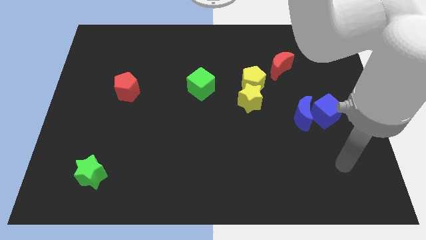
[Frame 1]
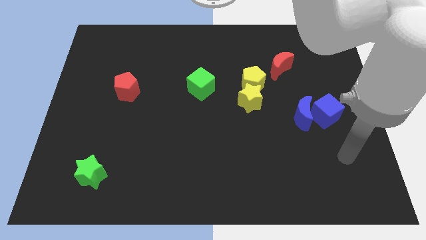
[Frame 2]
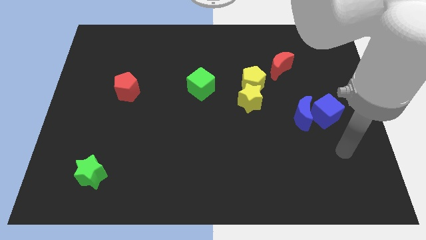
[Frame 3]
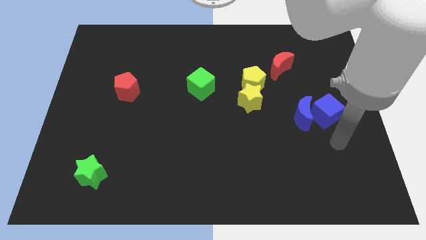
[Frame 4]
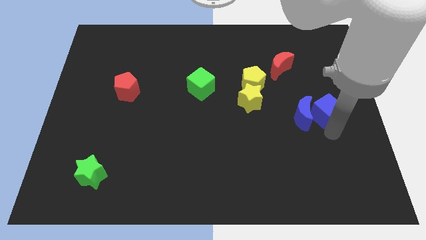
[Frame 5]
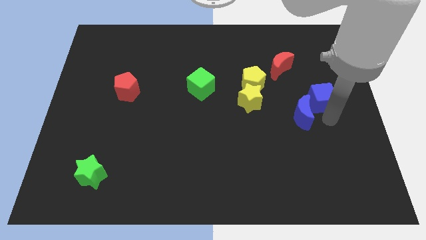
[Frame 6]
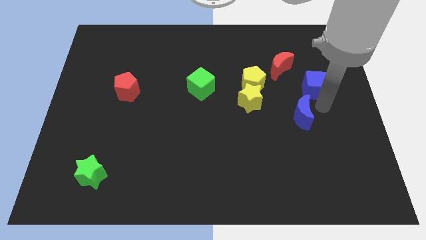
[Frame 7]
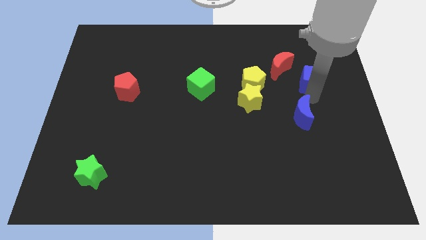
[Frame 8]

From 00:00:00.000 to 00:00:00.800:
move the blue moon away from the blue cube

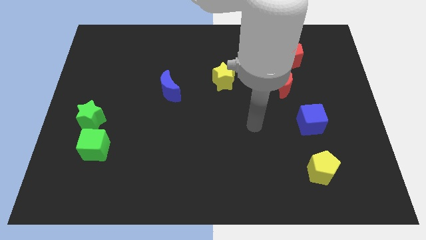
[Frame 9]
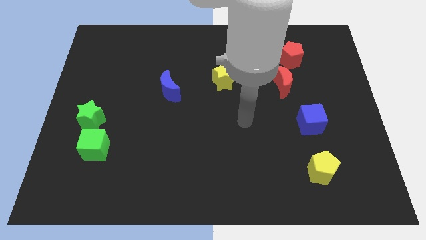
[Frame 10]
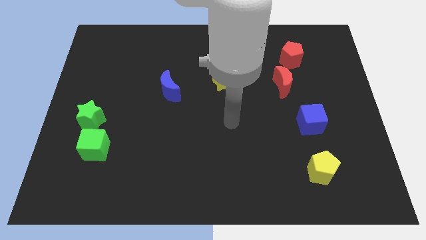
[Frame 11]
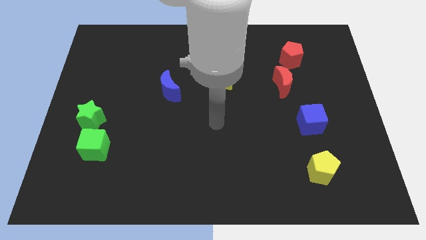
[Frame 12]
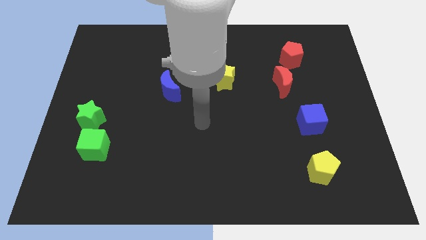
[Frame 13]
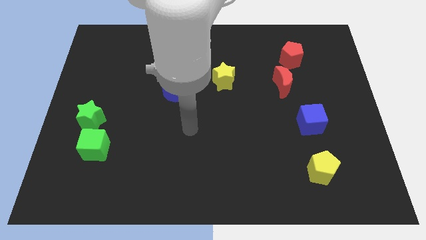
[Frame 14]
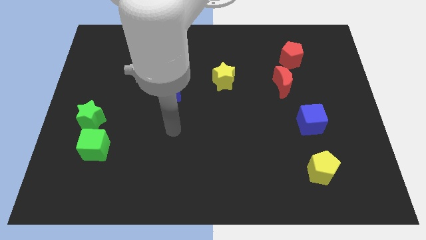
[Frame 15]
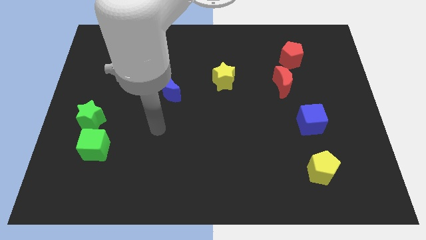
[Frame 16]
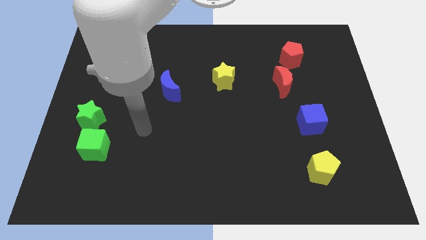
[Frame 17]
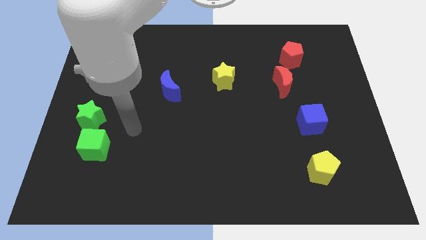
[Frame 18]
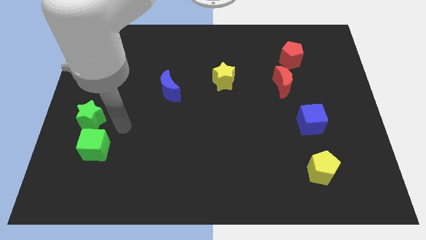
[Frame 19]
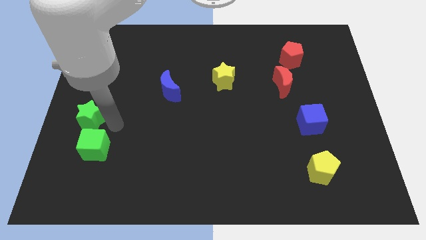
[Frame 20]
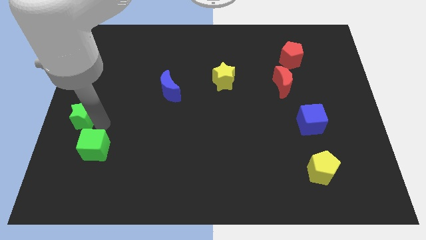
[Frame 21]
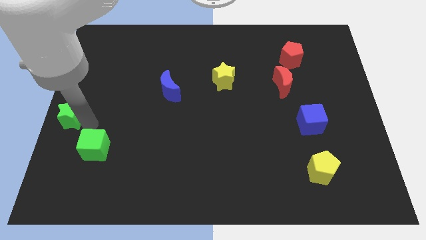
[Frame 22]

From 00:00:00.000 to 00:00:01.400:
separate the green cube from the green star

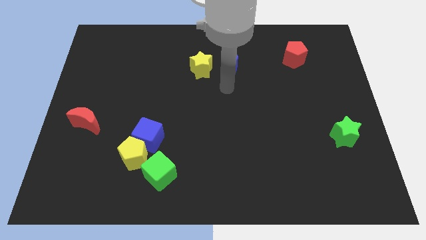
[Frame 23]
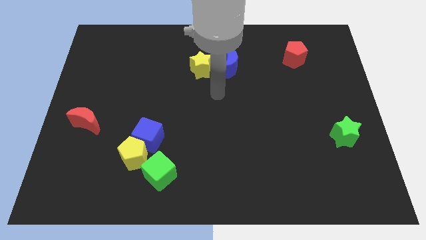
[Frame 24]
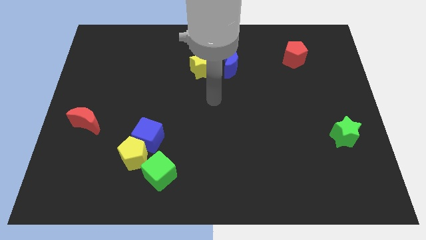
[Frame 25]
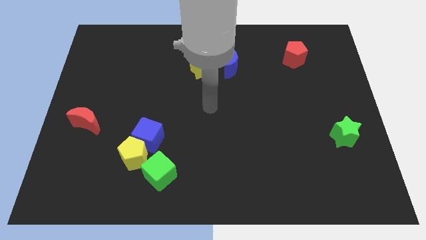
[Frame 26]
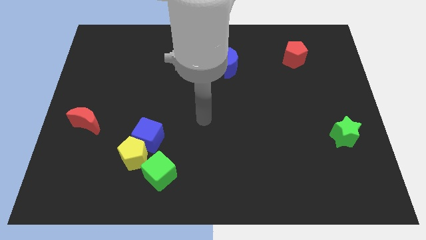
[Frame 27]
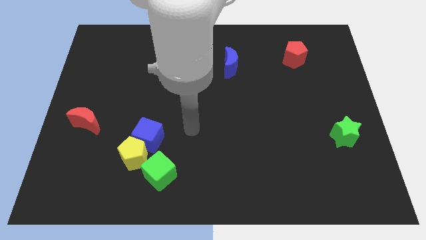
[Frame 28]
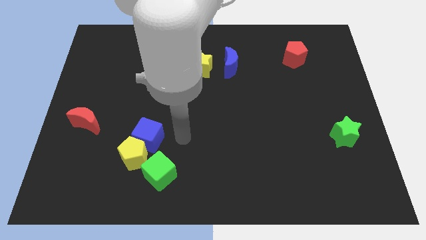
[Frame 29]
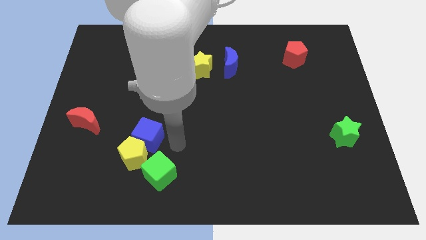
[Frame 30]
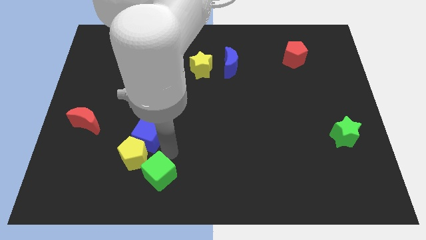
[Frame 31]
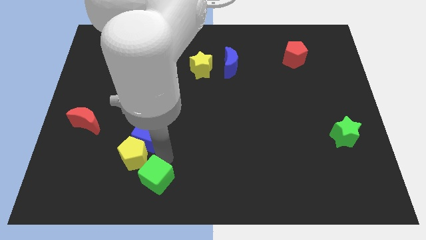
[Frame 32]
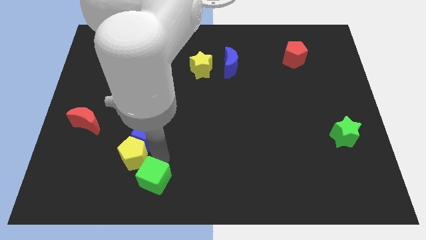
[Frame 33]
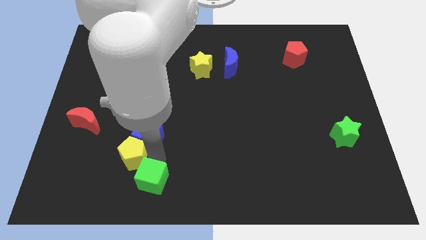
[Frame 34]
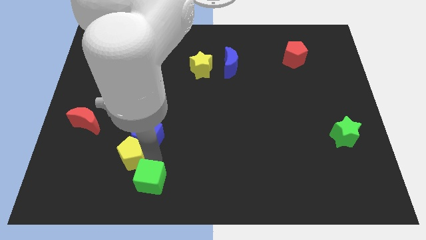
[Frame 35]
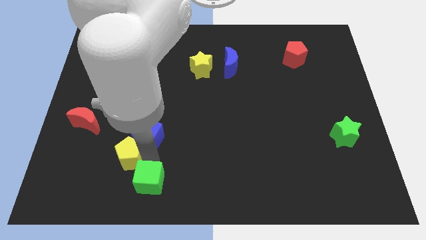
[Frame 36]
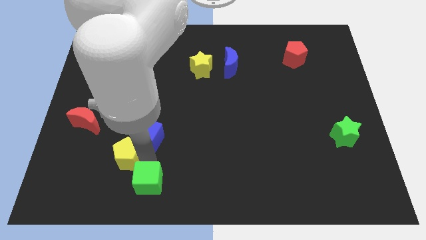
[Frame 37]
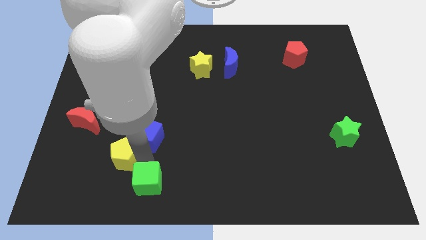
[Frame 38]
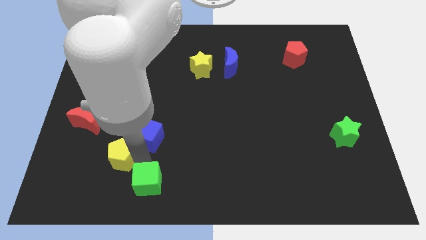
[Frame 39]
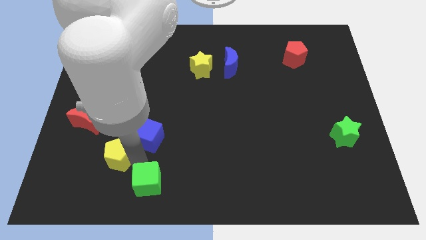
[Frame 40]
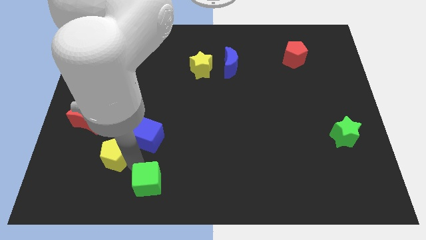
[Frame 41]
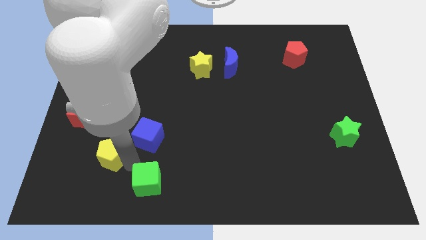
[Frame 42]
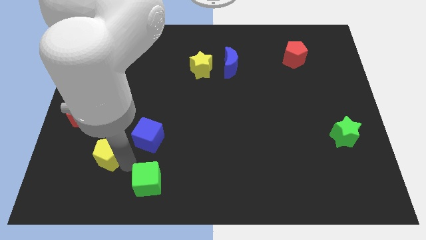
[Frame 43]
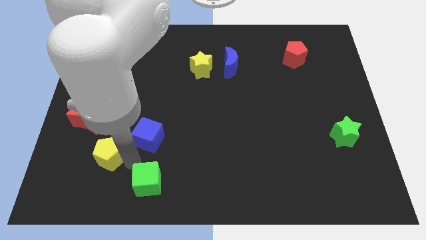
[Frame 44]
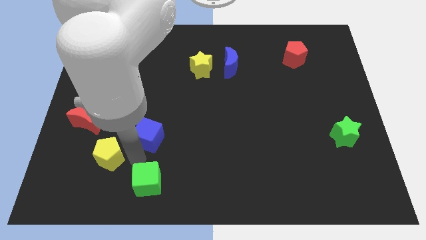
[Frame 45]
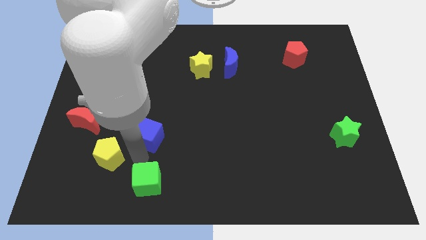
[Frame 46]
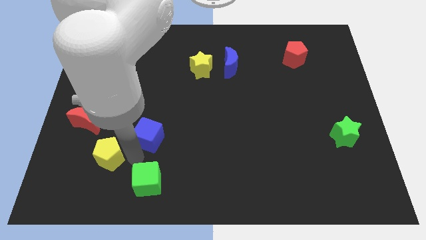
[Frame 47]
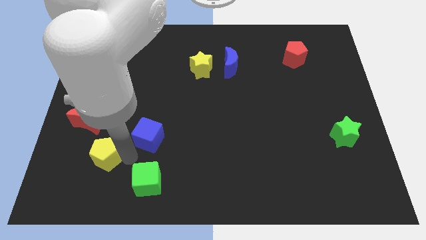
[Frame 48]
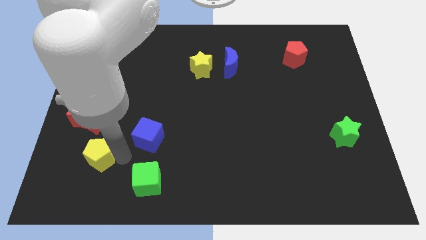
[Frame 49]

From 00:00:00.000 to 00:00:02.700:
move the yellow pentagon away from the blue cube and green cube

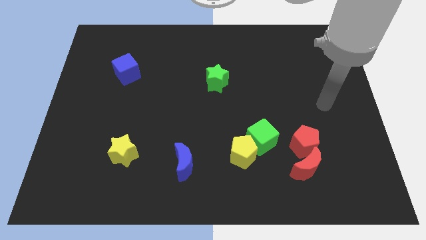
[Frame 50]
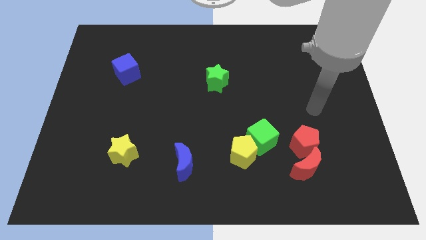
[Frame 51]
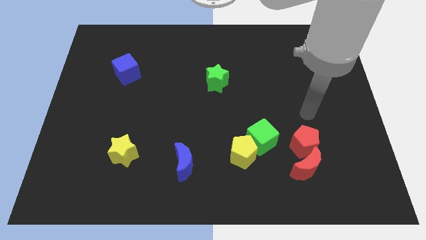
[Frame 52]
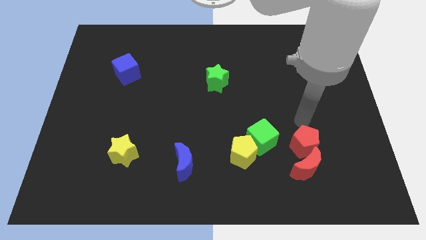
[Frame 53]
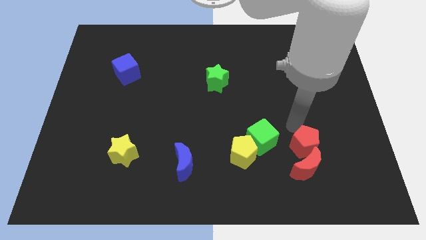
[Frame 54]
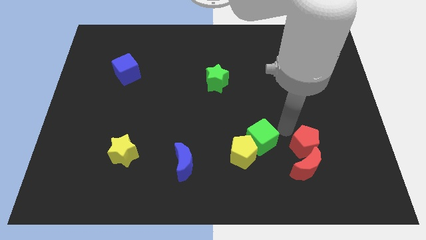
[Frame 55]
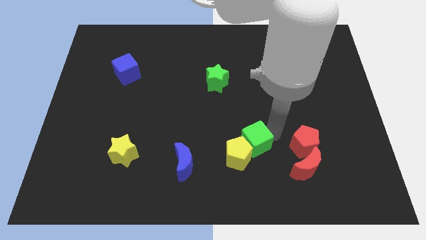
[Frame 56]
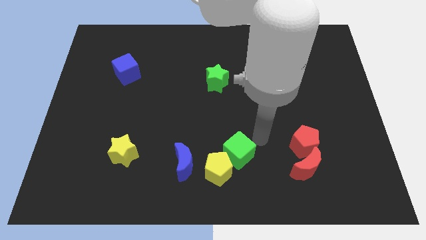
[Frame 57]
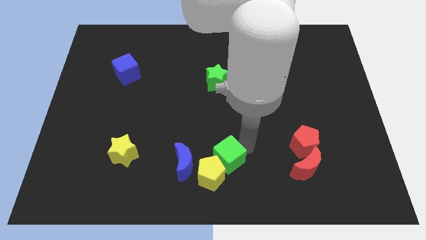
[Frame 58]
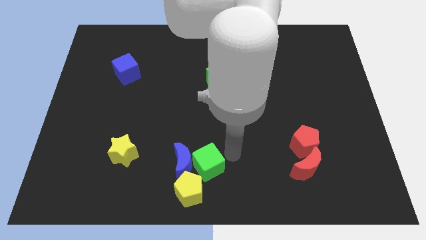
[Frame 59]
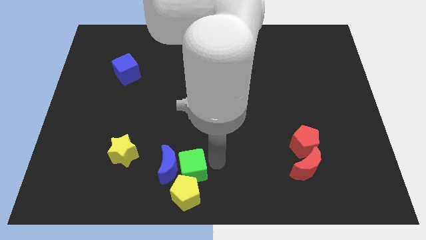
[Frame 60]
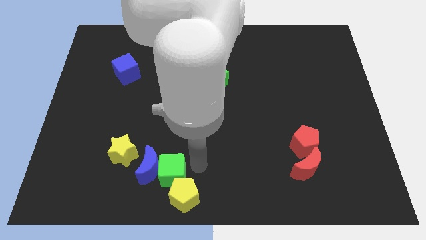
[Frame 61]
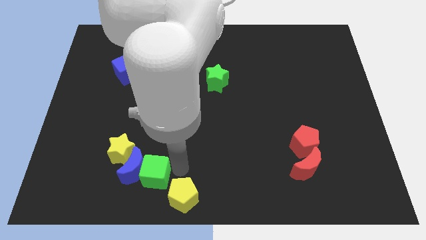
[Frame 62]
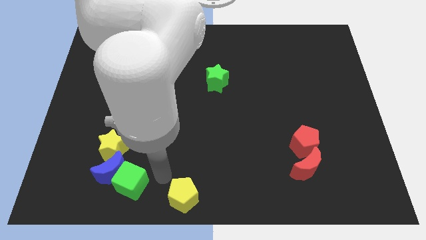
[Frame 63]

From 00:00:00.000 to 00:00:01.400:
separate the yellow pentagon from the green cube

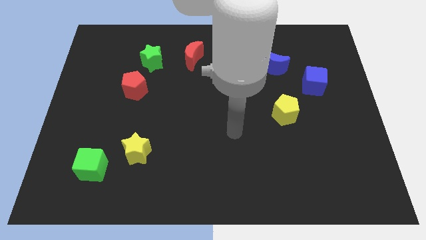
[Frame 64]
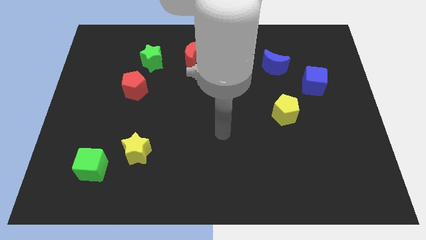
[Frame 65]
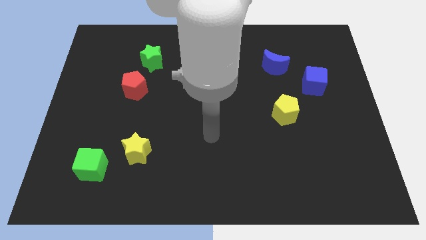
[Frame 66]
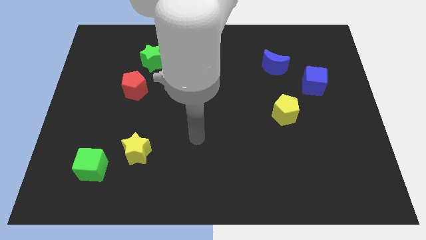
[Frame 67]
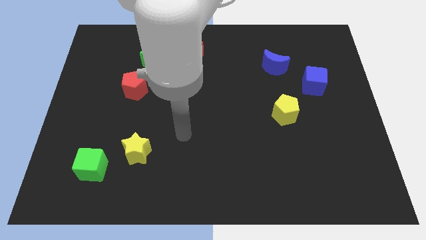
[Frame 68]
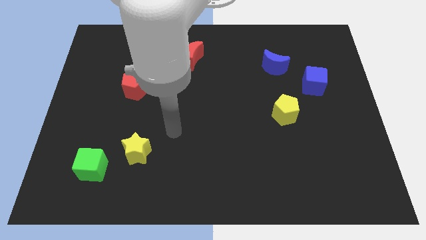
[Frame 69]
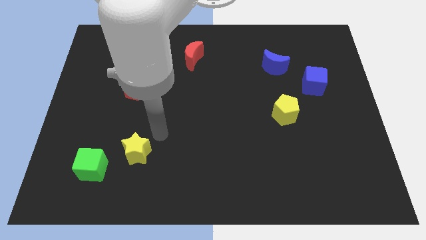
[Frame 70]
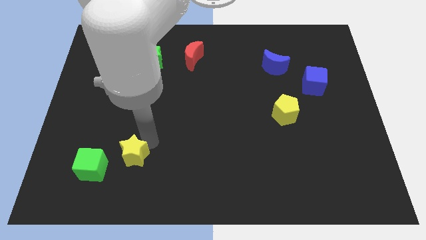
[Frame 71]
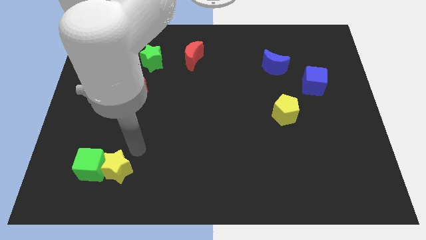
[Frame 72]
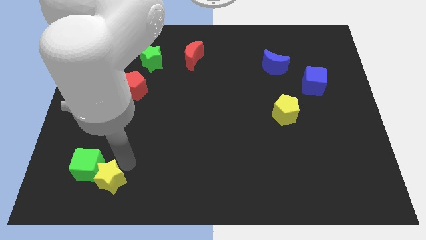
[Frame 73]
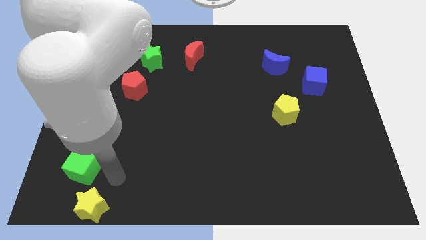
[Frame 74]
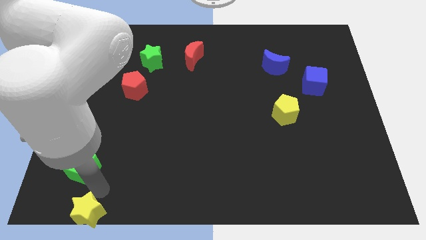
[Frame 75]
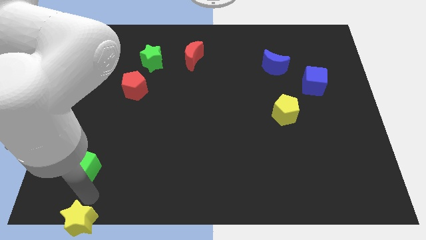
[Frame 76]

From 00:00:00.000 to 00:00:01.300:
separate the green cube from the yellow star

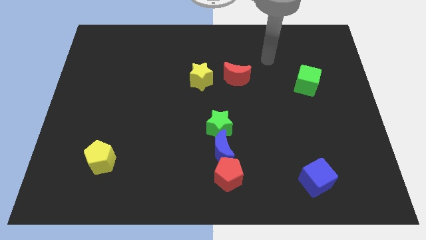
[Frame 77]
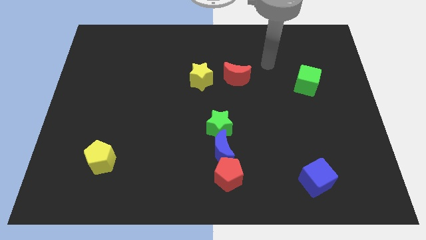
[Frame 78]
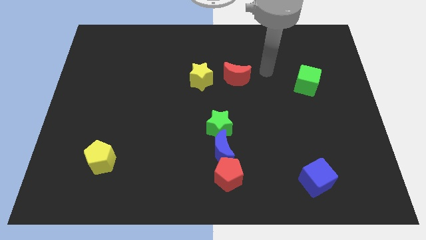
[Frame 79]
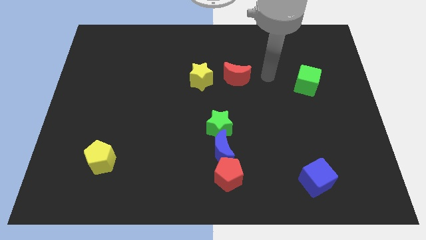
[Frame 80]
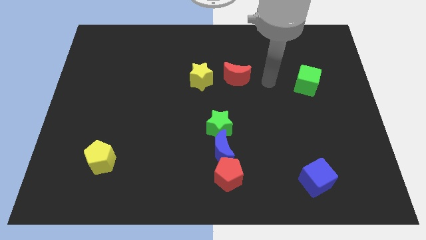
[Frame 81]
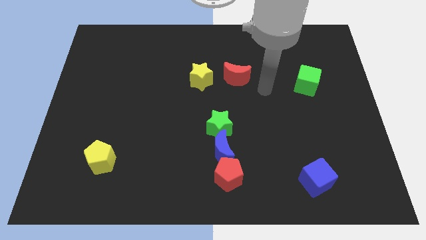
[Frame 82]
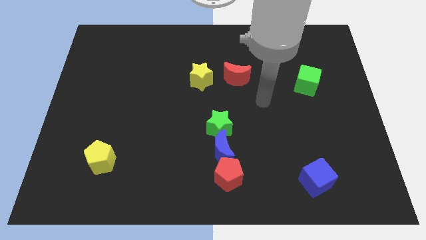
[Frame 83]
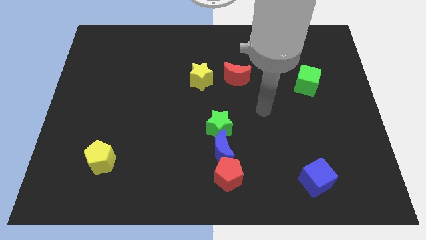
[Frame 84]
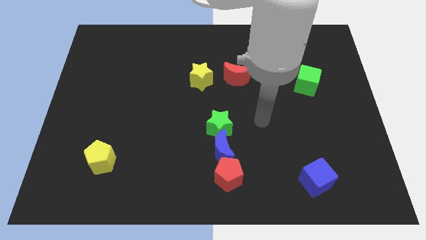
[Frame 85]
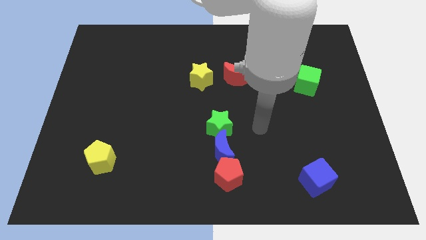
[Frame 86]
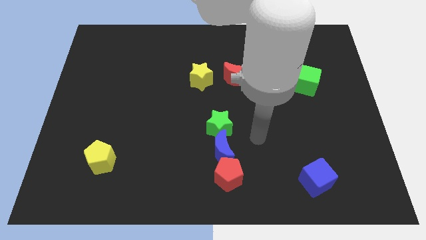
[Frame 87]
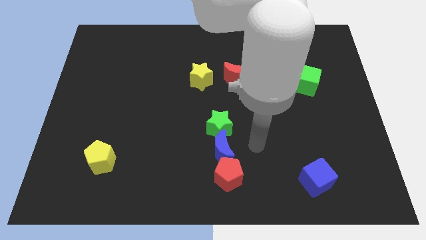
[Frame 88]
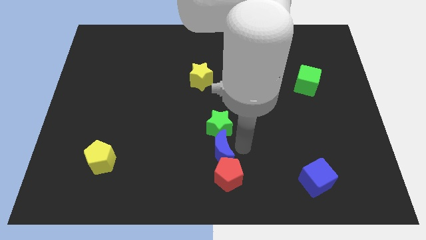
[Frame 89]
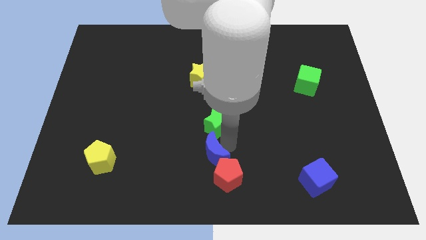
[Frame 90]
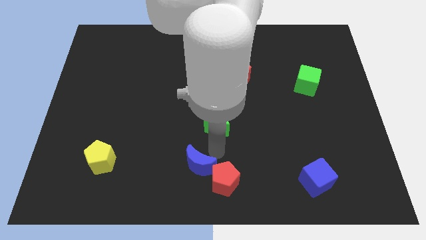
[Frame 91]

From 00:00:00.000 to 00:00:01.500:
separate the green star from the blue moon

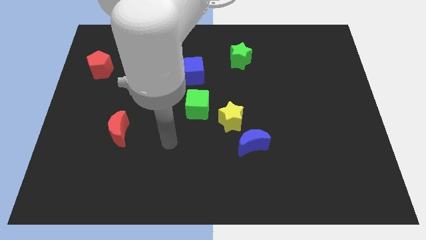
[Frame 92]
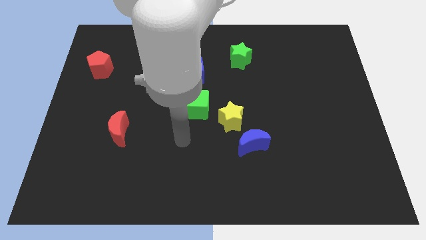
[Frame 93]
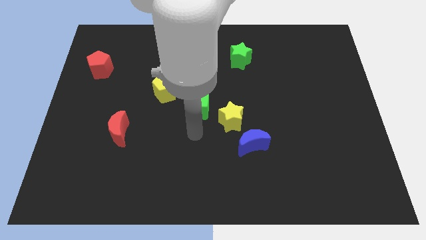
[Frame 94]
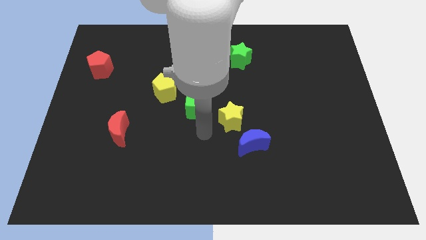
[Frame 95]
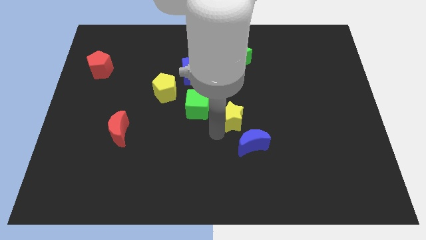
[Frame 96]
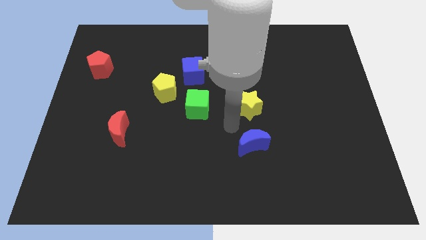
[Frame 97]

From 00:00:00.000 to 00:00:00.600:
move the blue moon away from the yellow star
